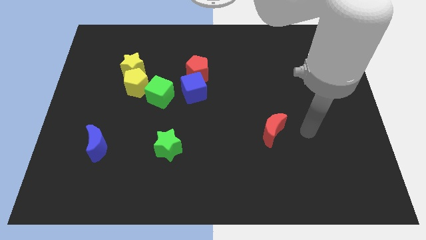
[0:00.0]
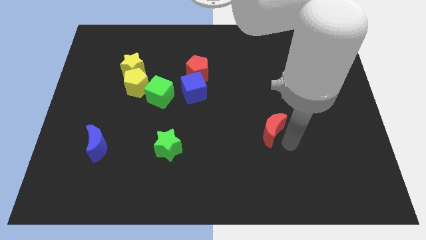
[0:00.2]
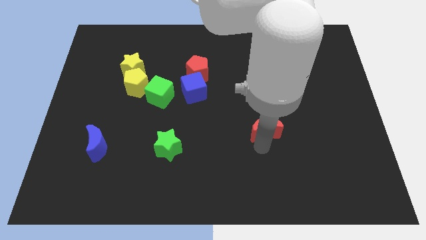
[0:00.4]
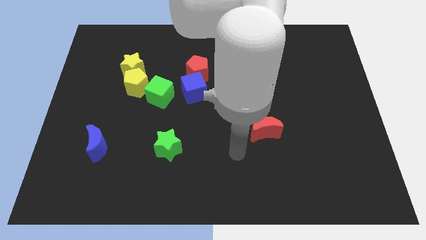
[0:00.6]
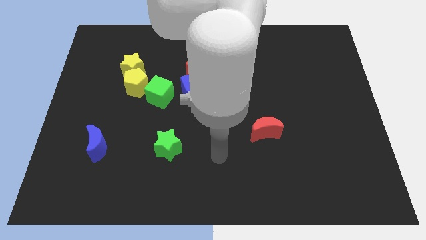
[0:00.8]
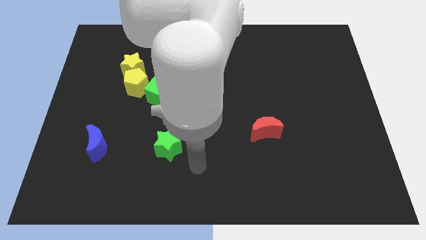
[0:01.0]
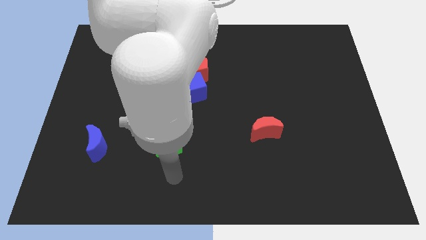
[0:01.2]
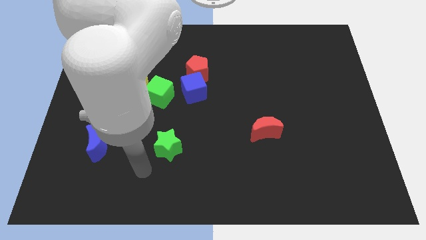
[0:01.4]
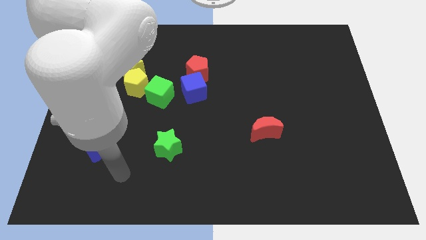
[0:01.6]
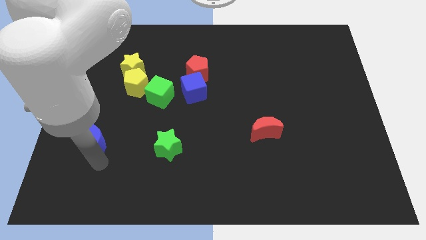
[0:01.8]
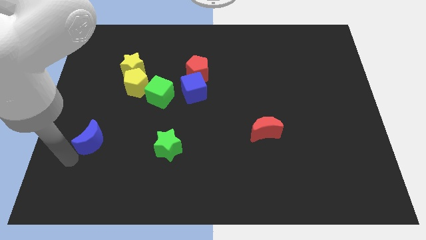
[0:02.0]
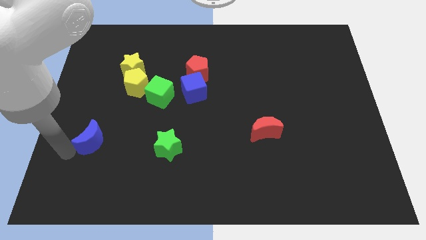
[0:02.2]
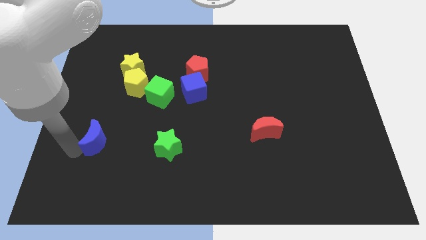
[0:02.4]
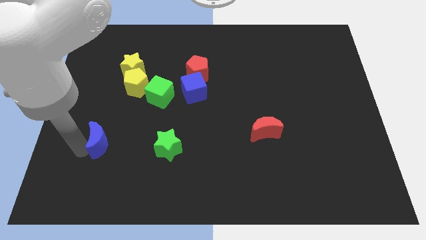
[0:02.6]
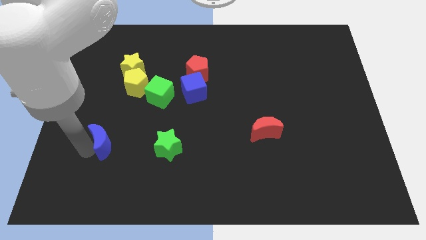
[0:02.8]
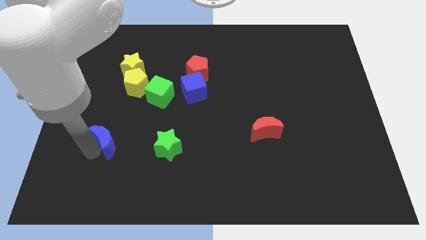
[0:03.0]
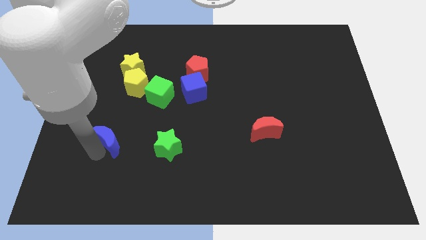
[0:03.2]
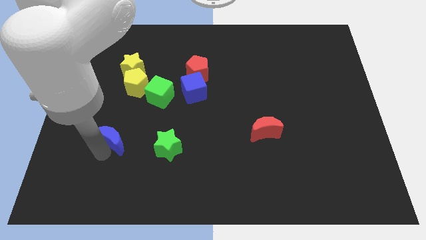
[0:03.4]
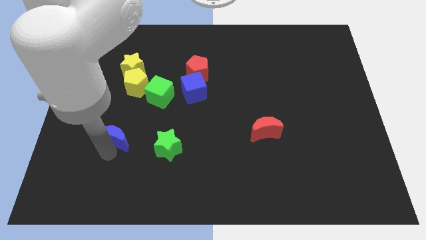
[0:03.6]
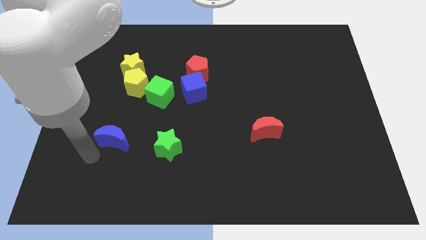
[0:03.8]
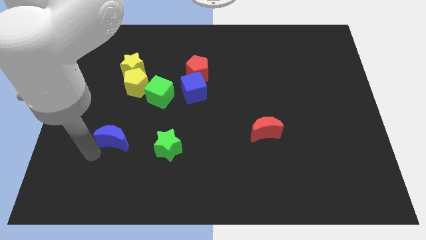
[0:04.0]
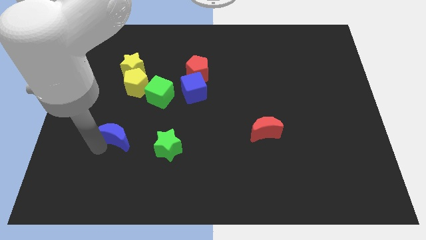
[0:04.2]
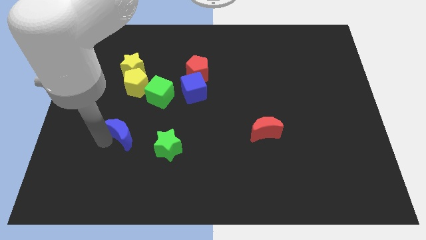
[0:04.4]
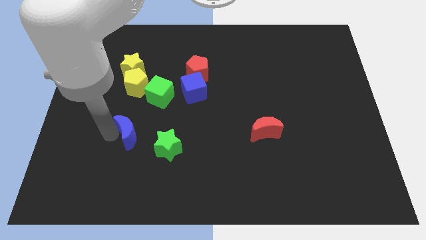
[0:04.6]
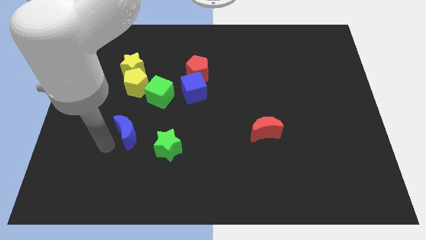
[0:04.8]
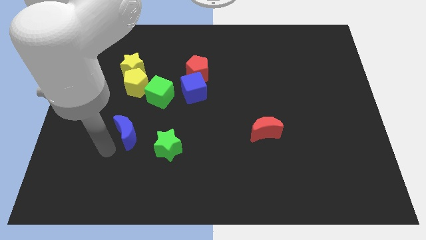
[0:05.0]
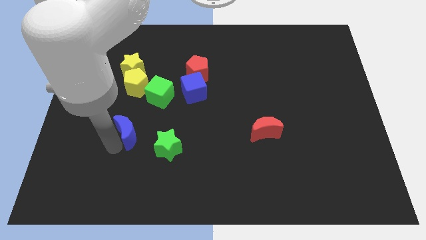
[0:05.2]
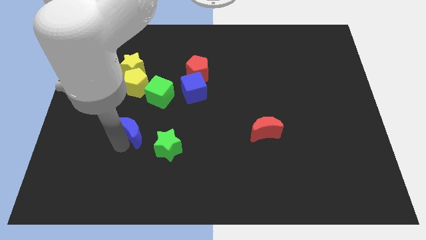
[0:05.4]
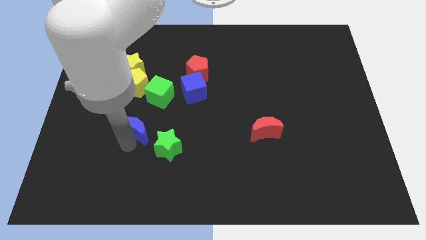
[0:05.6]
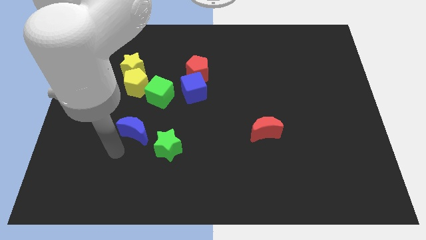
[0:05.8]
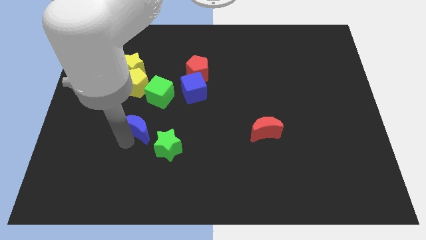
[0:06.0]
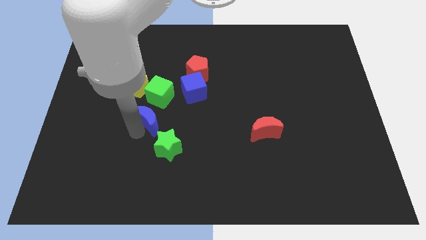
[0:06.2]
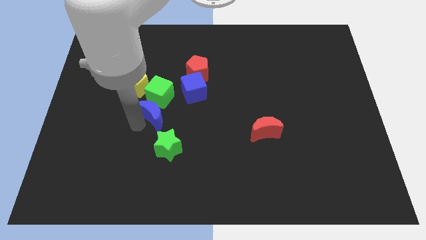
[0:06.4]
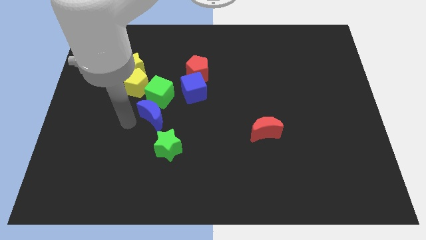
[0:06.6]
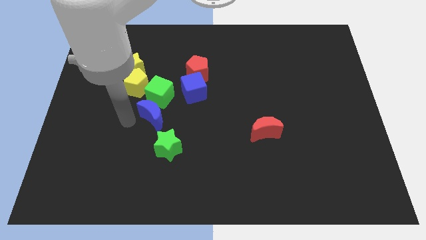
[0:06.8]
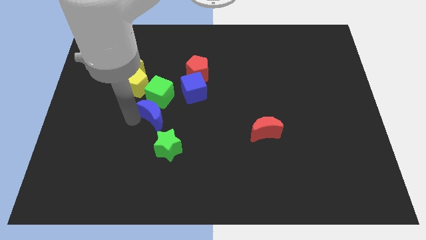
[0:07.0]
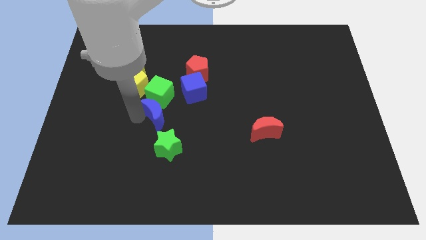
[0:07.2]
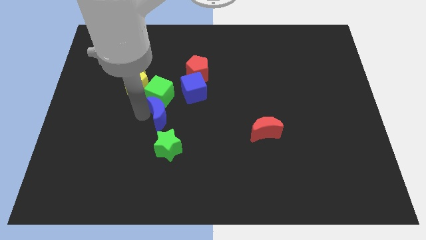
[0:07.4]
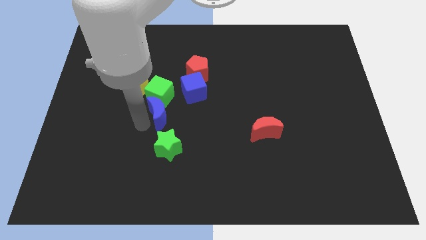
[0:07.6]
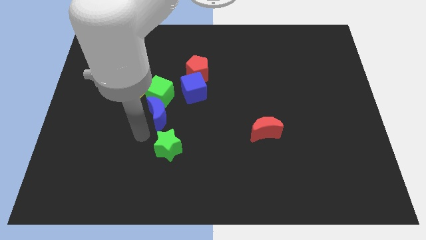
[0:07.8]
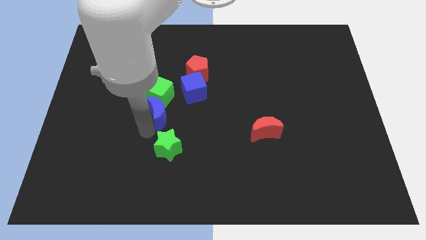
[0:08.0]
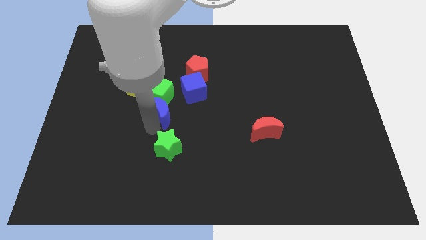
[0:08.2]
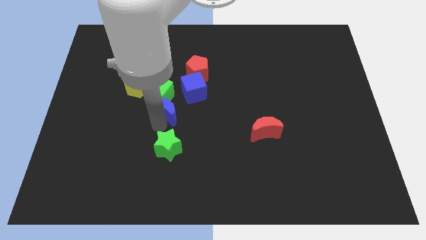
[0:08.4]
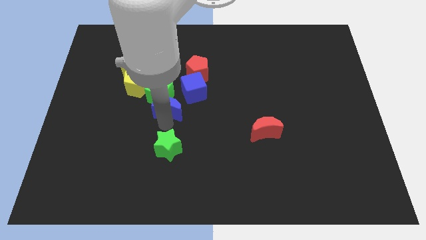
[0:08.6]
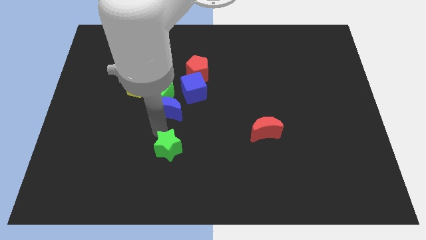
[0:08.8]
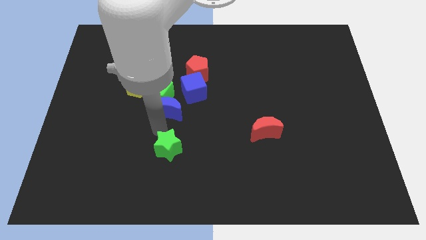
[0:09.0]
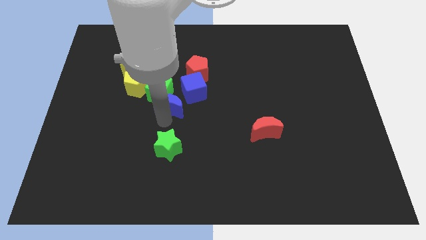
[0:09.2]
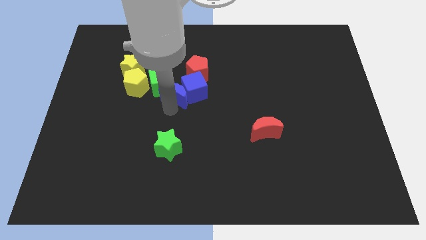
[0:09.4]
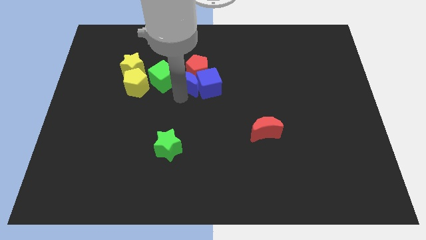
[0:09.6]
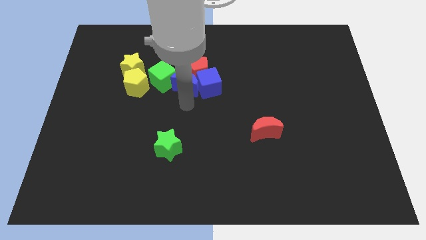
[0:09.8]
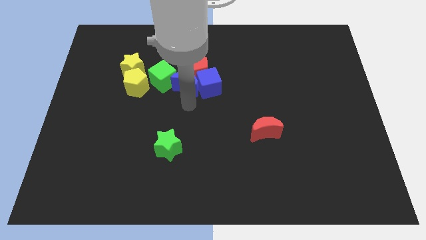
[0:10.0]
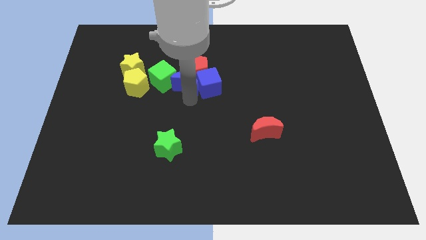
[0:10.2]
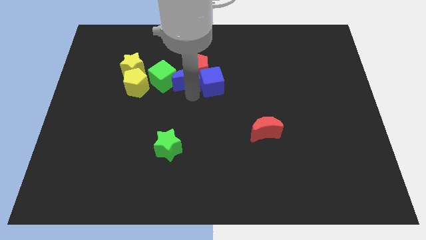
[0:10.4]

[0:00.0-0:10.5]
push the blue moon to the top right of the green cube

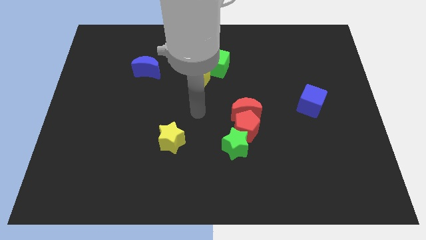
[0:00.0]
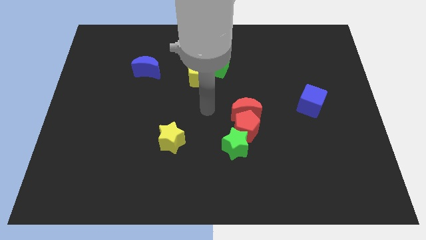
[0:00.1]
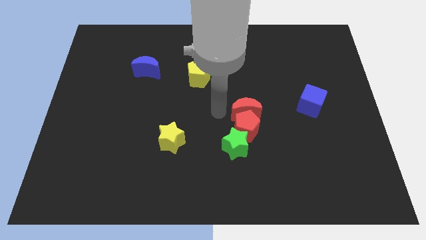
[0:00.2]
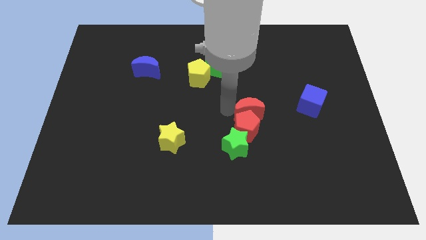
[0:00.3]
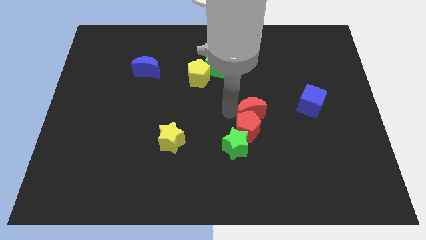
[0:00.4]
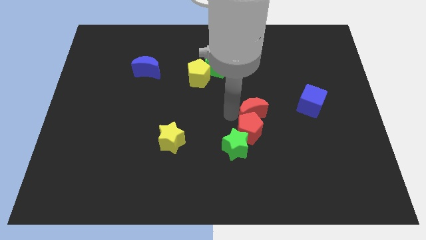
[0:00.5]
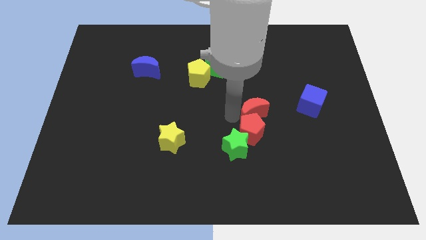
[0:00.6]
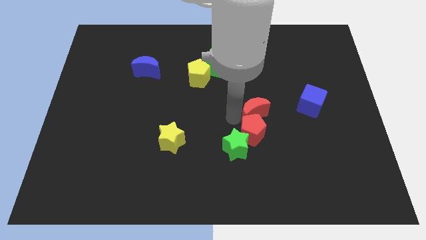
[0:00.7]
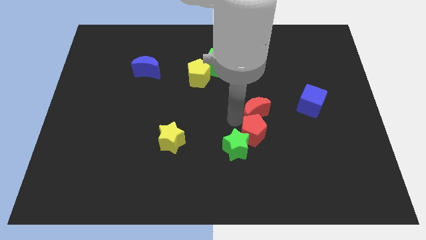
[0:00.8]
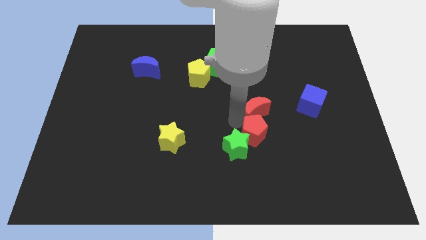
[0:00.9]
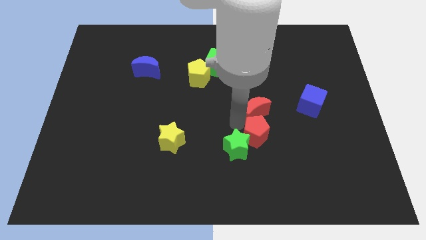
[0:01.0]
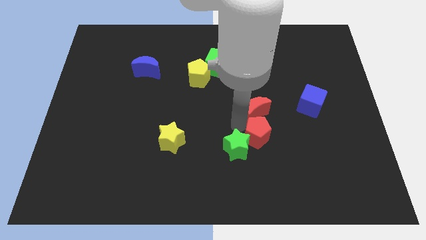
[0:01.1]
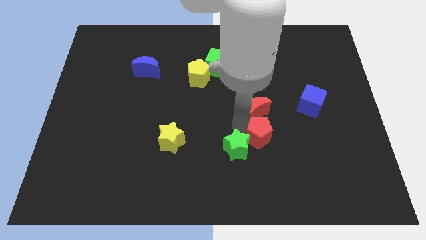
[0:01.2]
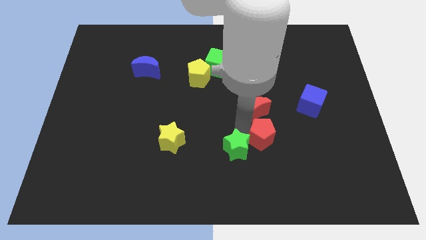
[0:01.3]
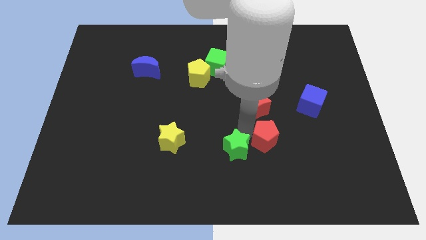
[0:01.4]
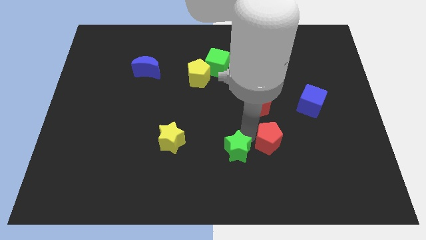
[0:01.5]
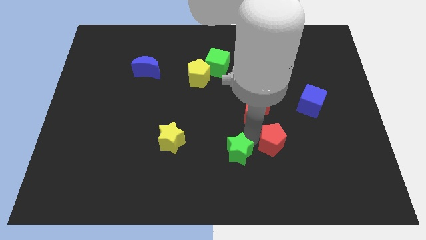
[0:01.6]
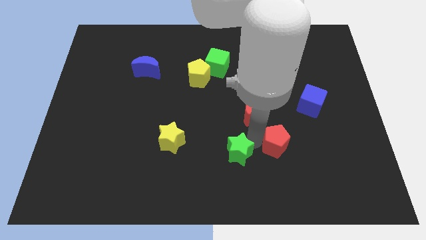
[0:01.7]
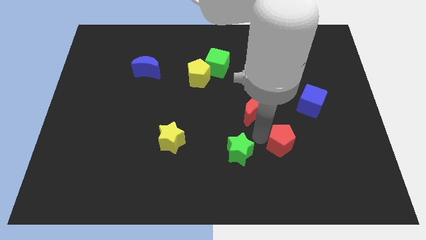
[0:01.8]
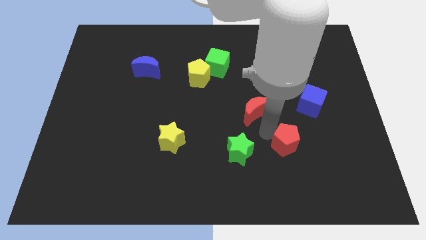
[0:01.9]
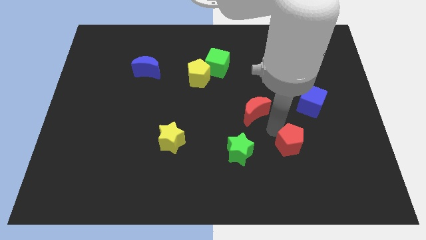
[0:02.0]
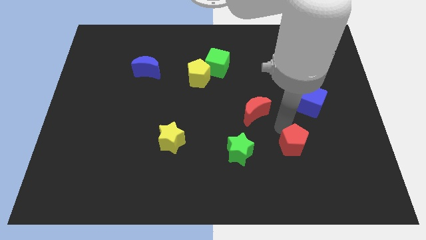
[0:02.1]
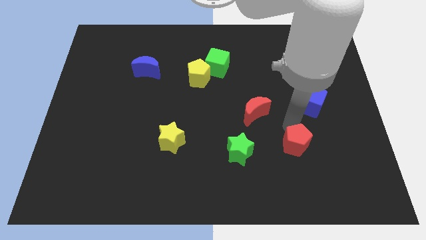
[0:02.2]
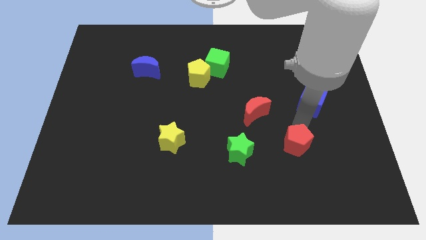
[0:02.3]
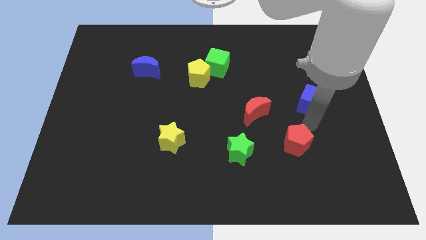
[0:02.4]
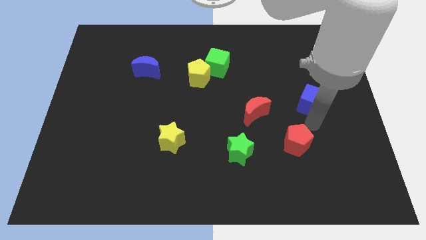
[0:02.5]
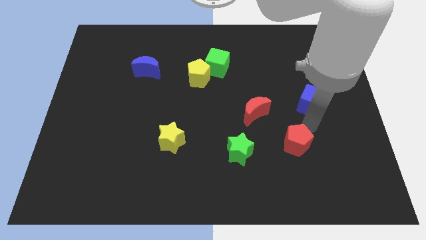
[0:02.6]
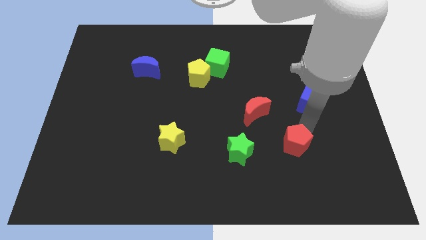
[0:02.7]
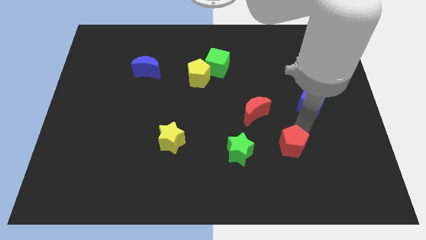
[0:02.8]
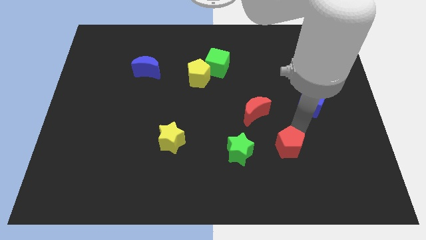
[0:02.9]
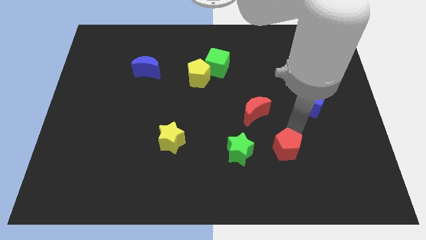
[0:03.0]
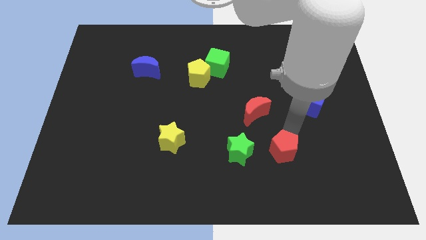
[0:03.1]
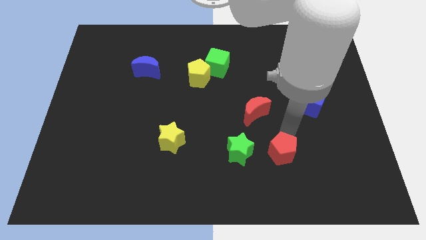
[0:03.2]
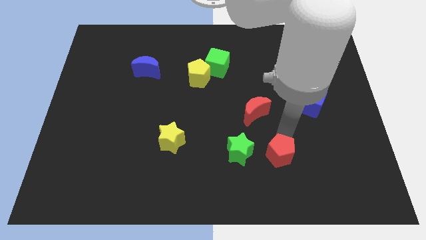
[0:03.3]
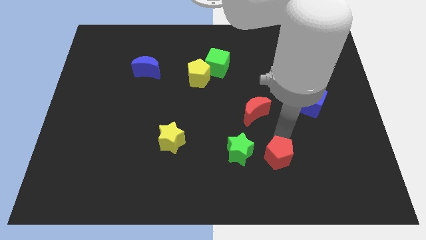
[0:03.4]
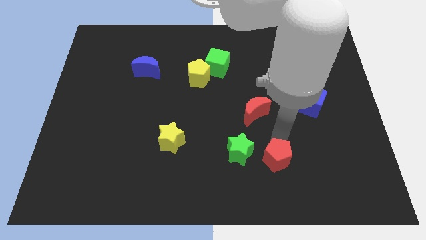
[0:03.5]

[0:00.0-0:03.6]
push the red pentagon to the bottom right of the green star
